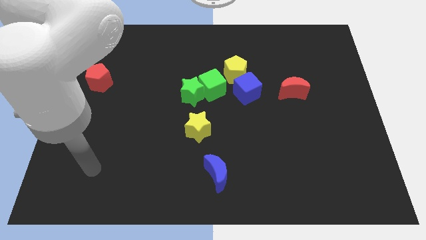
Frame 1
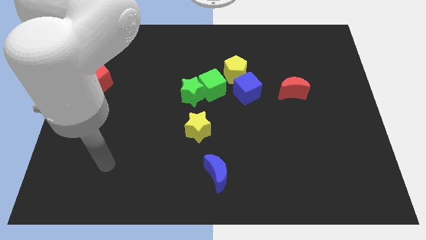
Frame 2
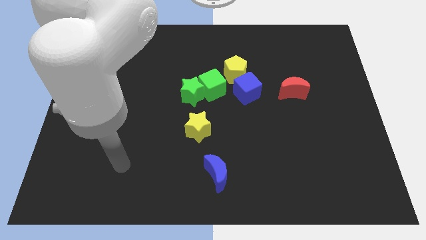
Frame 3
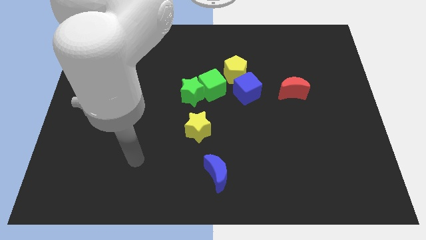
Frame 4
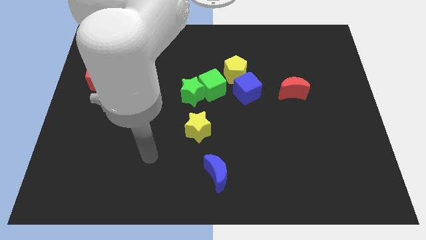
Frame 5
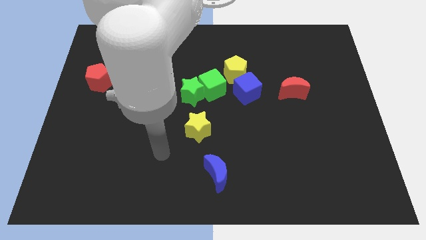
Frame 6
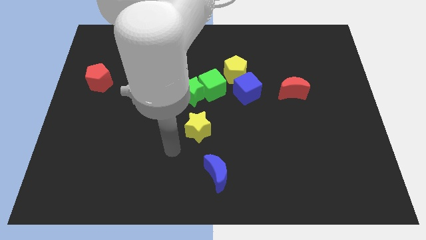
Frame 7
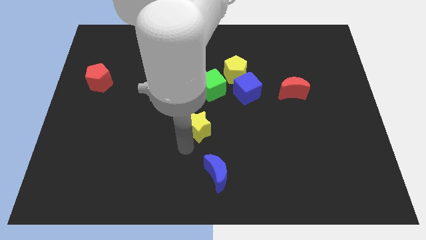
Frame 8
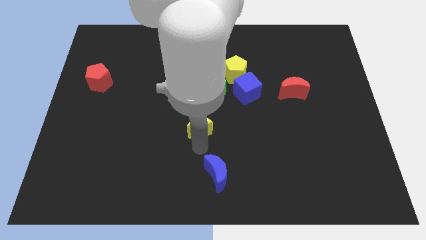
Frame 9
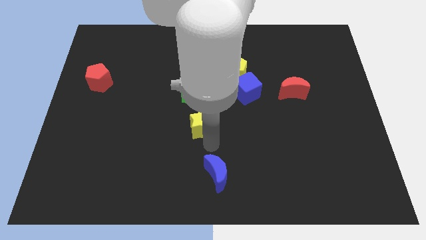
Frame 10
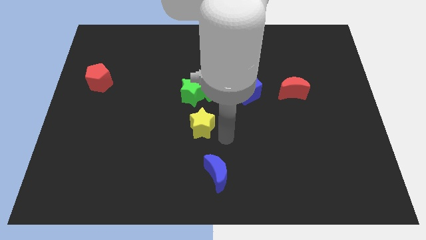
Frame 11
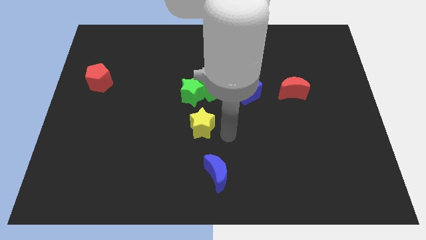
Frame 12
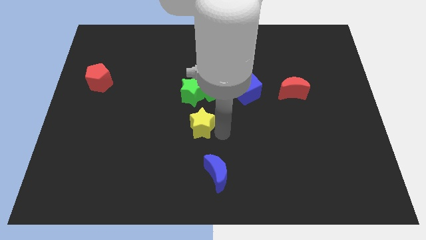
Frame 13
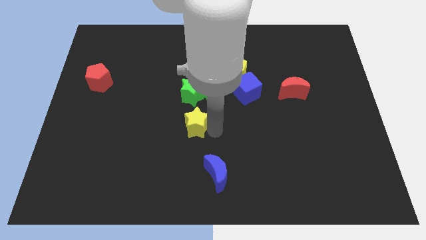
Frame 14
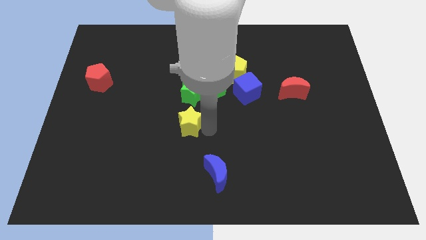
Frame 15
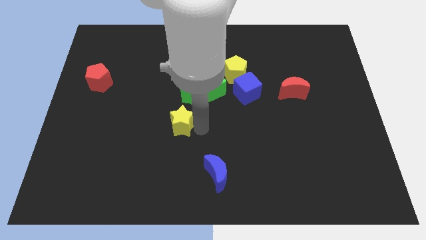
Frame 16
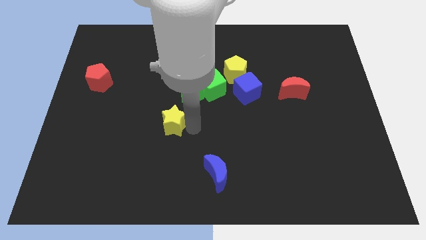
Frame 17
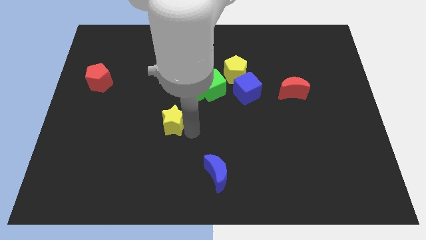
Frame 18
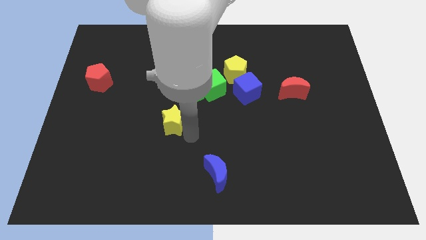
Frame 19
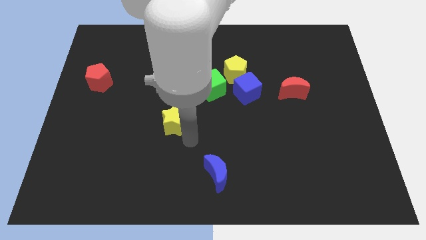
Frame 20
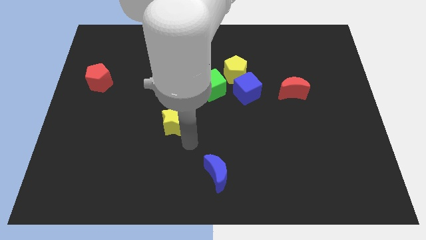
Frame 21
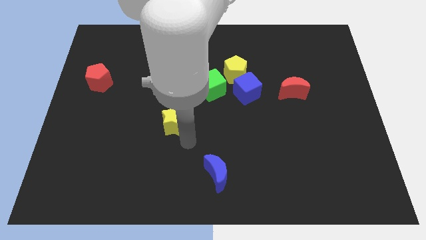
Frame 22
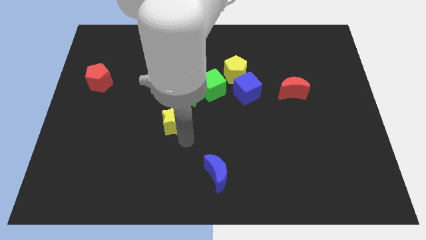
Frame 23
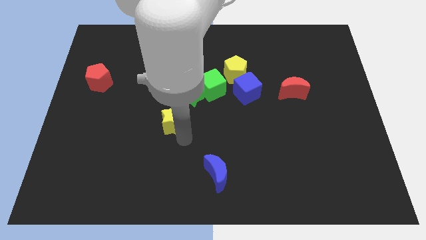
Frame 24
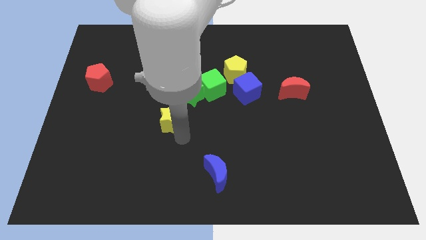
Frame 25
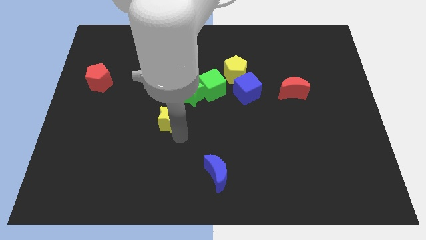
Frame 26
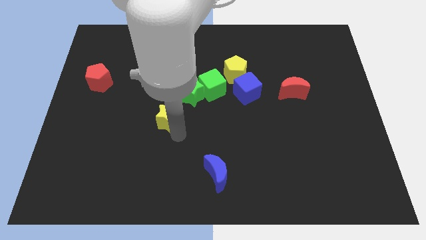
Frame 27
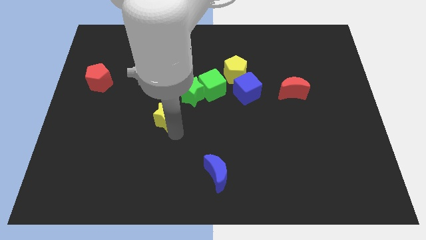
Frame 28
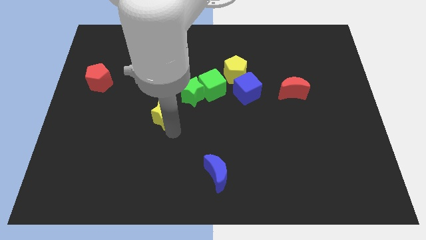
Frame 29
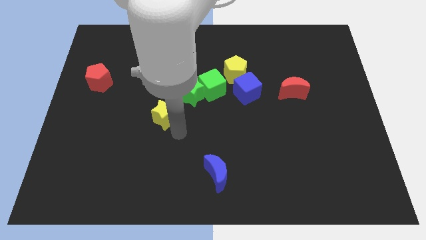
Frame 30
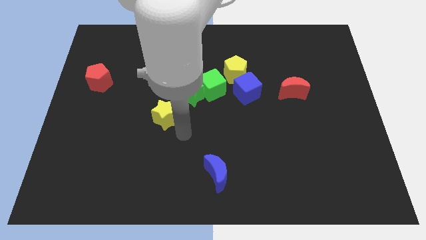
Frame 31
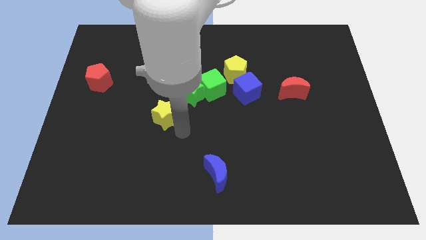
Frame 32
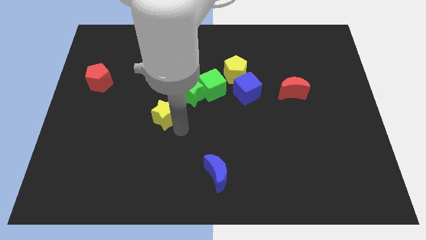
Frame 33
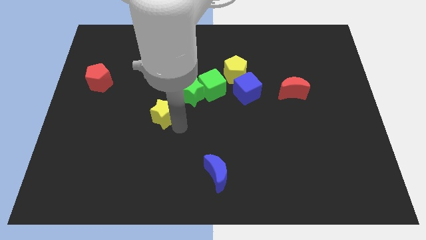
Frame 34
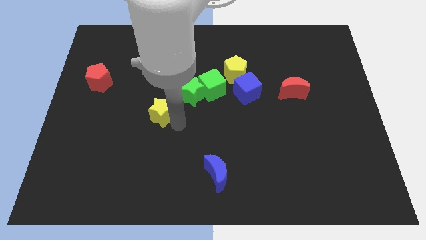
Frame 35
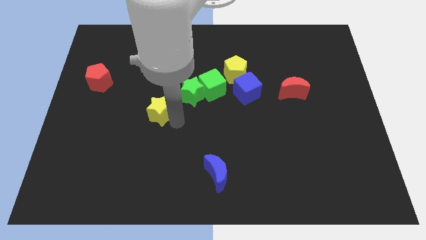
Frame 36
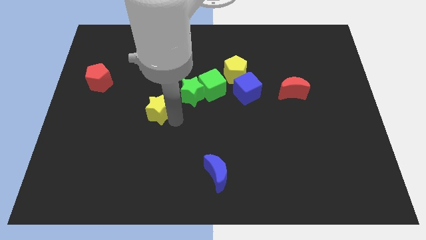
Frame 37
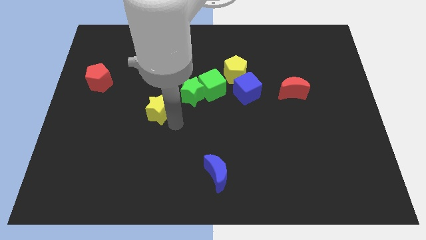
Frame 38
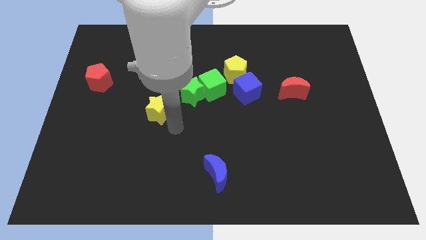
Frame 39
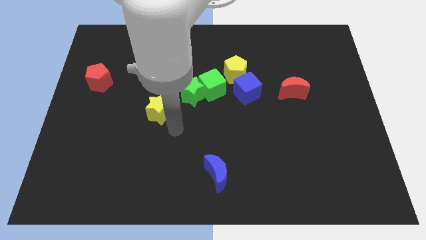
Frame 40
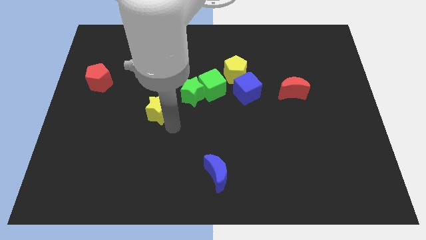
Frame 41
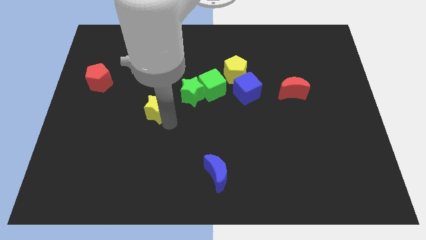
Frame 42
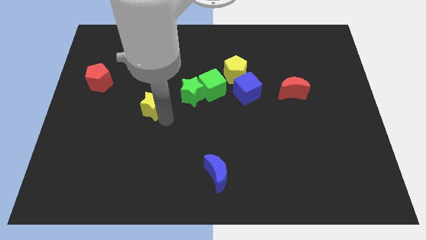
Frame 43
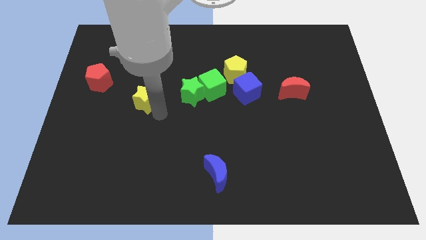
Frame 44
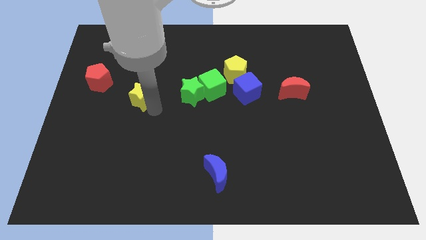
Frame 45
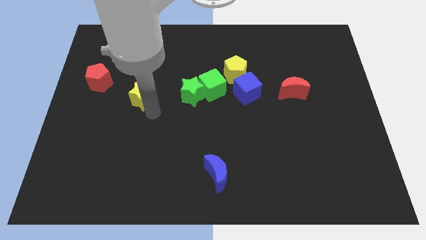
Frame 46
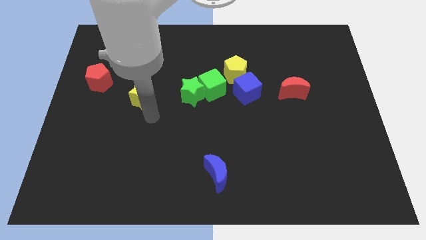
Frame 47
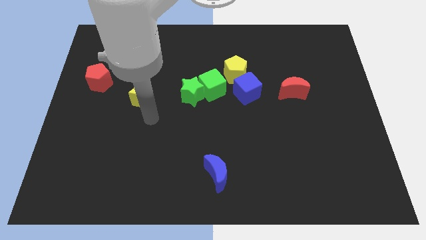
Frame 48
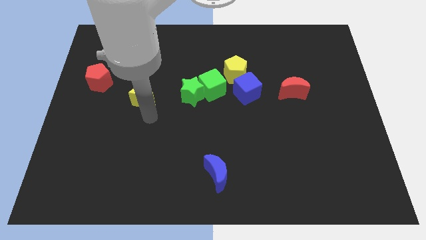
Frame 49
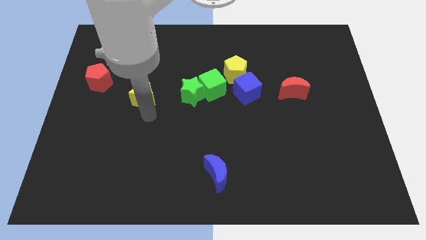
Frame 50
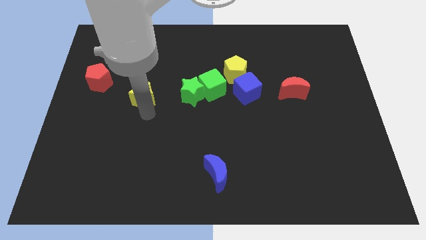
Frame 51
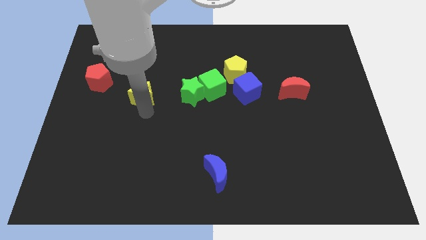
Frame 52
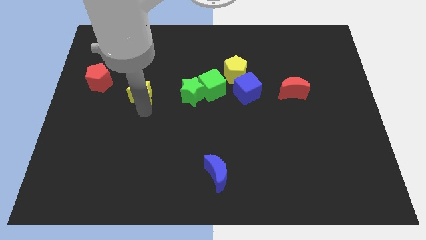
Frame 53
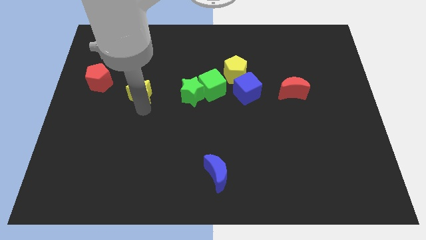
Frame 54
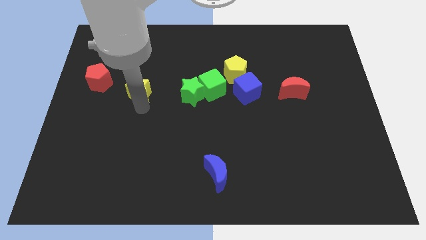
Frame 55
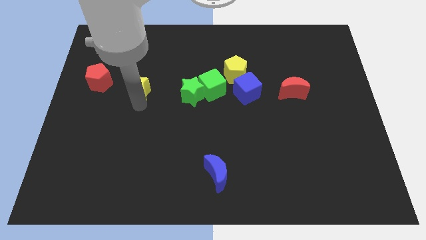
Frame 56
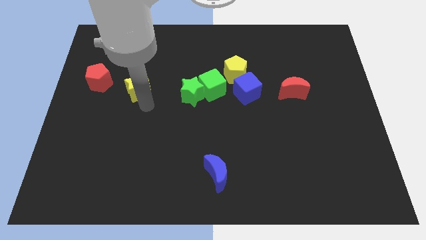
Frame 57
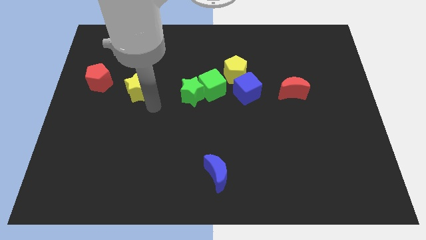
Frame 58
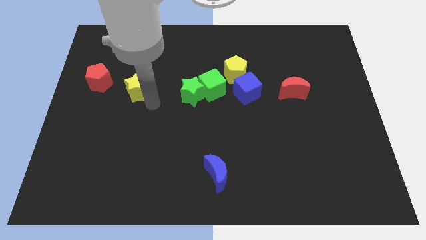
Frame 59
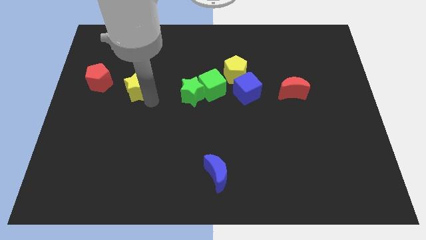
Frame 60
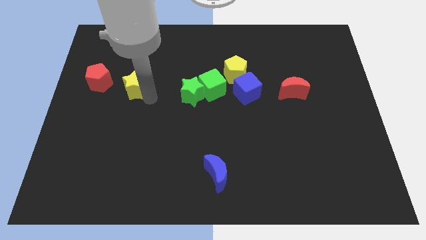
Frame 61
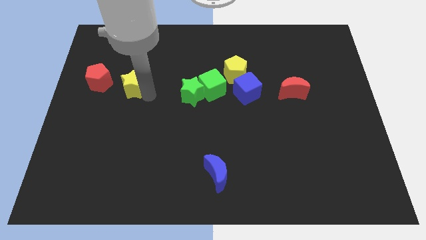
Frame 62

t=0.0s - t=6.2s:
push the yellow star up and to the left diagonally

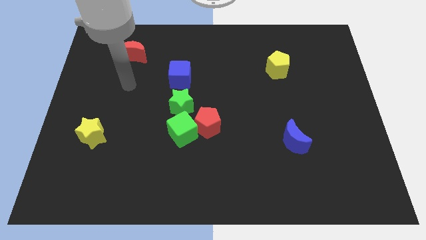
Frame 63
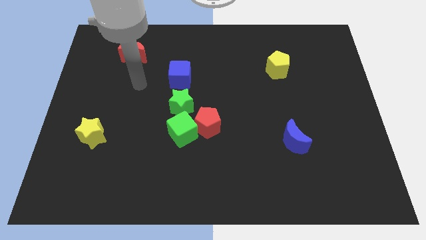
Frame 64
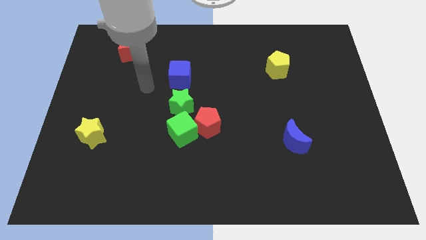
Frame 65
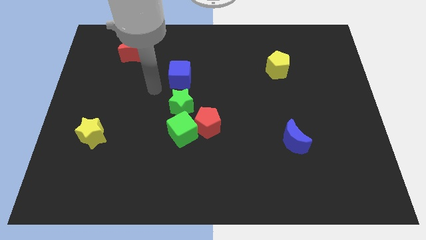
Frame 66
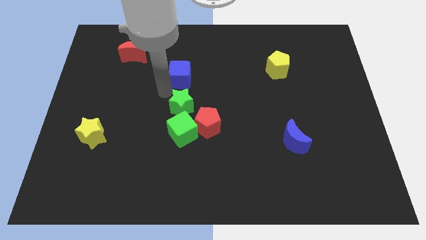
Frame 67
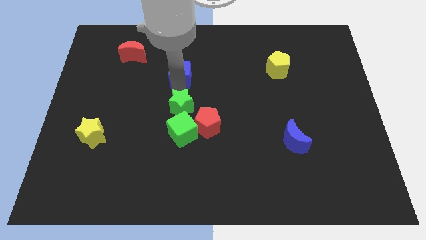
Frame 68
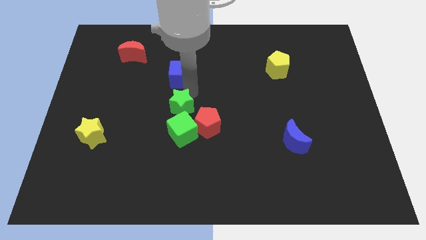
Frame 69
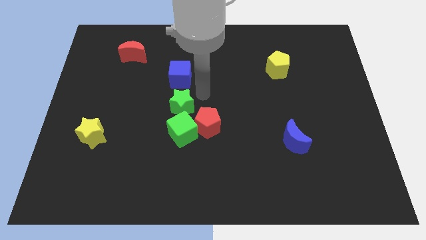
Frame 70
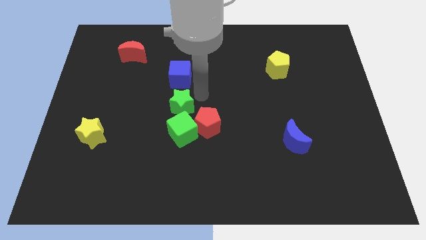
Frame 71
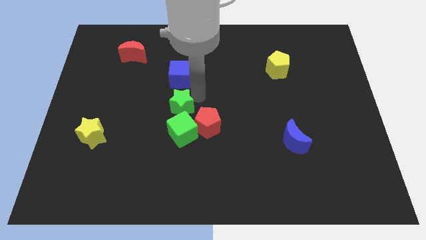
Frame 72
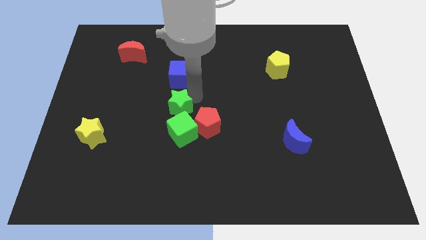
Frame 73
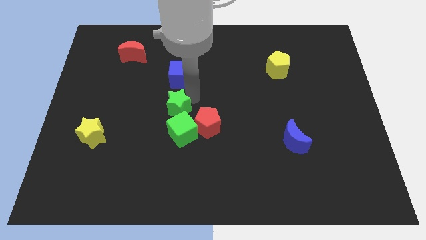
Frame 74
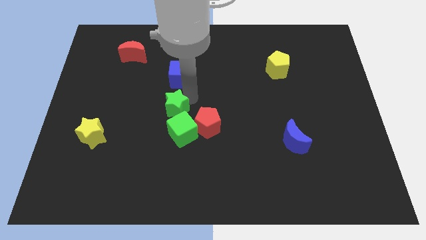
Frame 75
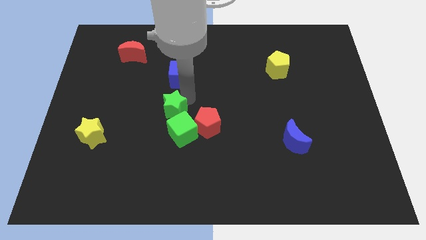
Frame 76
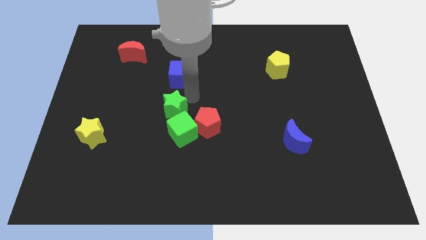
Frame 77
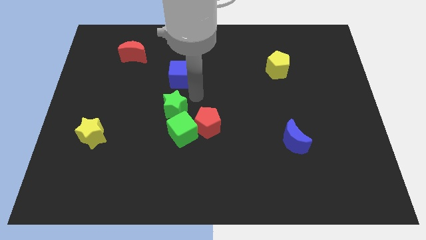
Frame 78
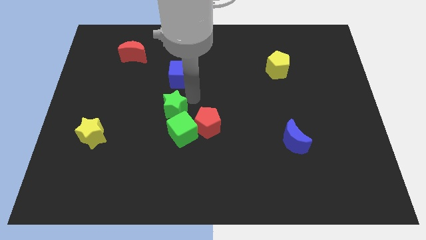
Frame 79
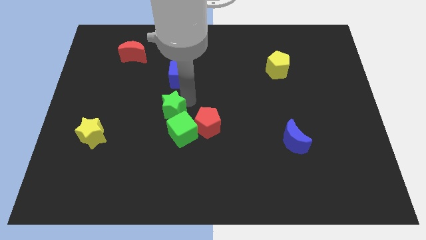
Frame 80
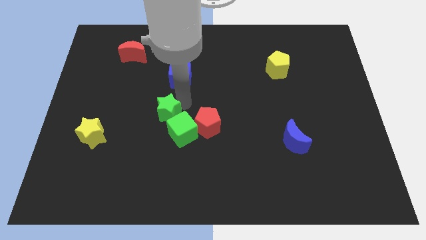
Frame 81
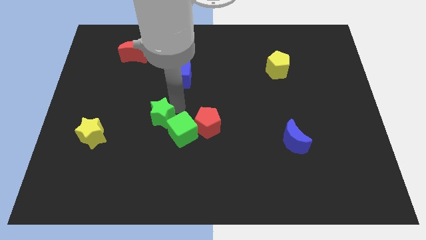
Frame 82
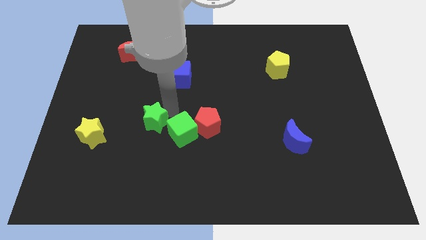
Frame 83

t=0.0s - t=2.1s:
slide the green star a bit down and left diagonally
